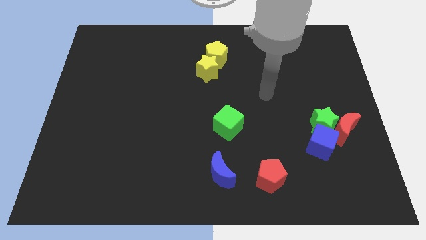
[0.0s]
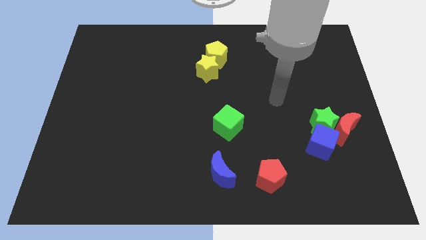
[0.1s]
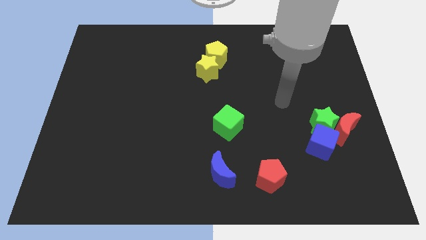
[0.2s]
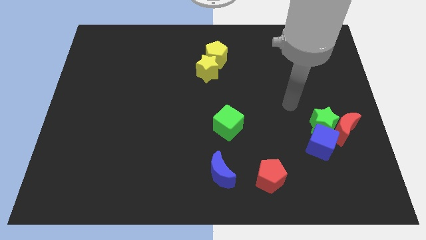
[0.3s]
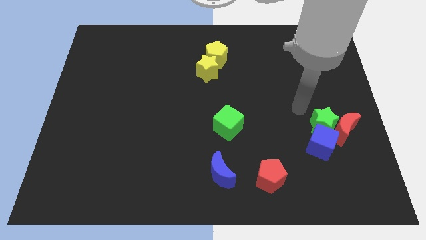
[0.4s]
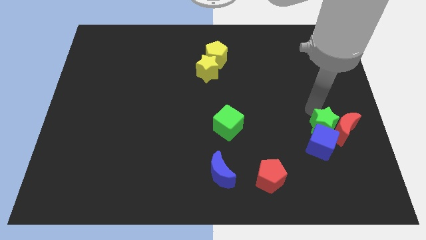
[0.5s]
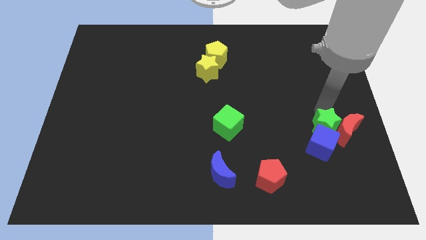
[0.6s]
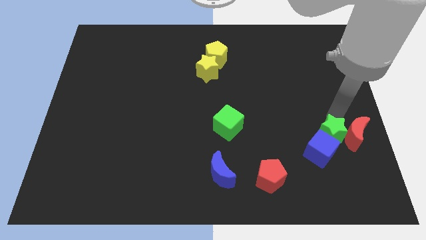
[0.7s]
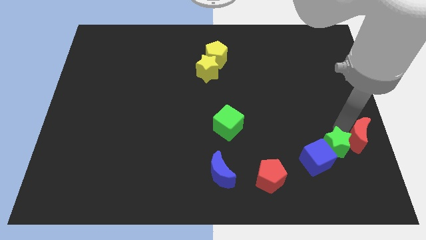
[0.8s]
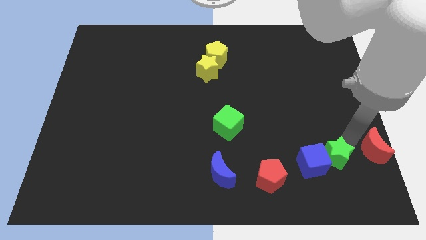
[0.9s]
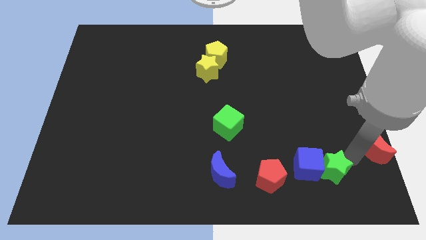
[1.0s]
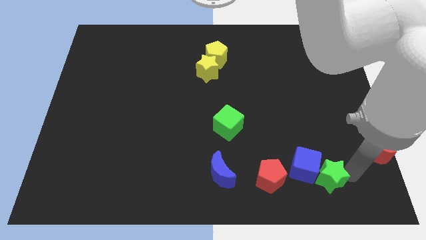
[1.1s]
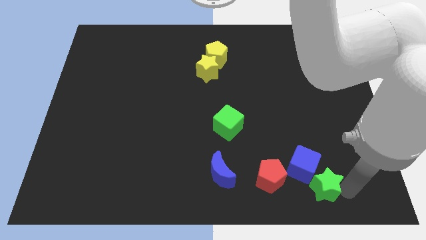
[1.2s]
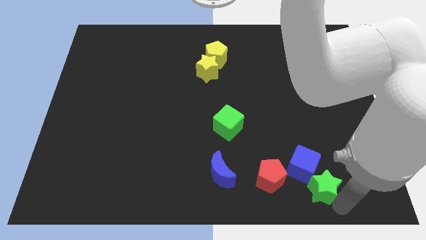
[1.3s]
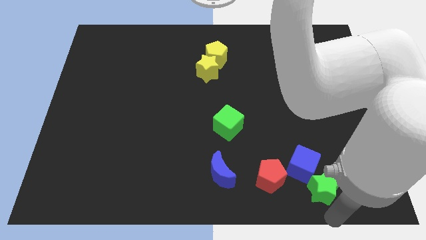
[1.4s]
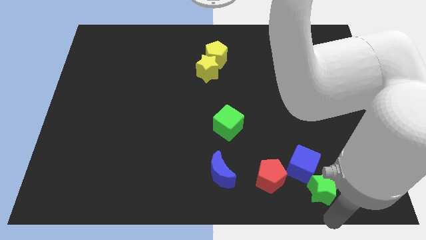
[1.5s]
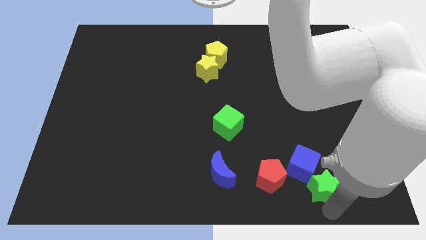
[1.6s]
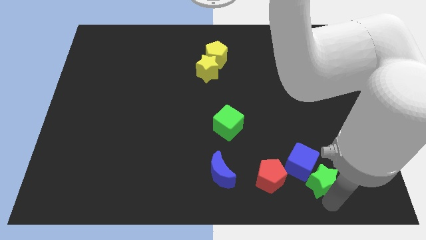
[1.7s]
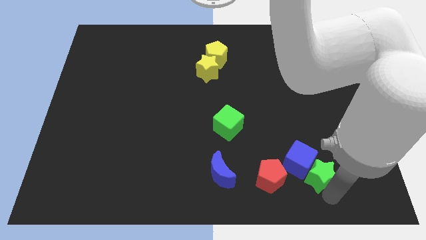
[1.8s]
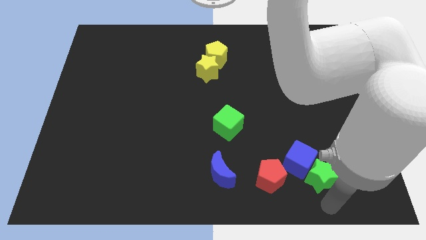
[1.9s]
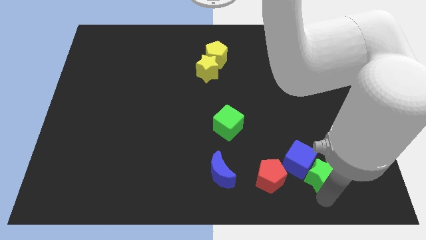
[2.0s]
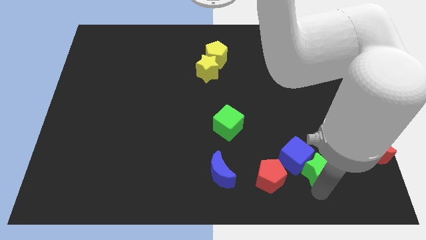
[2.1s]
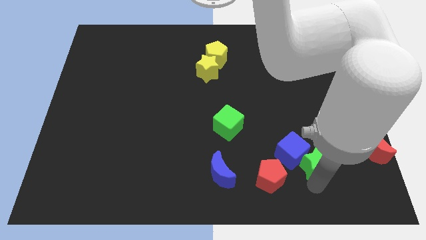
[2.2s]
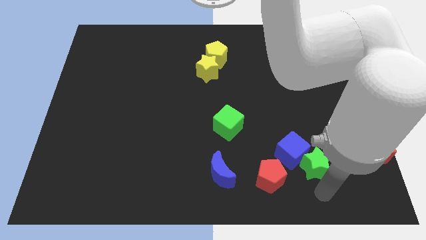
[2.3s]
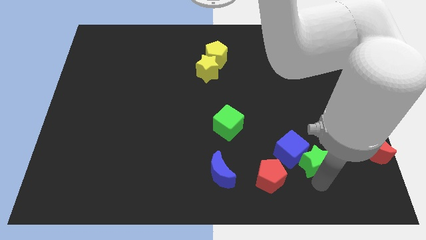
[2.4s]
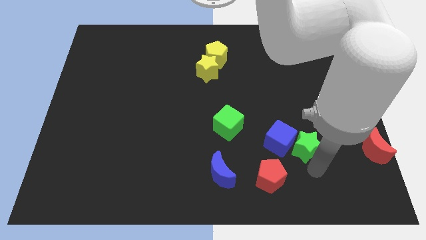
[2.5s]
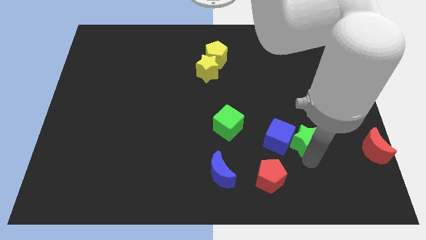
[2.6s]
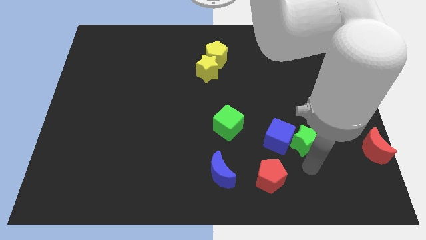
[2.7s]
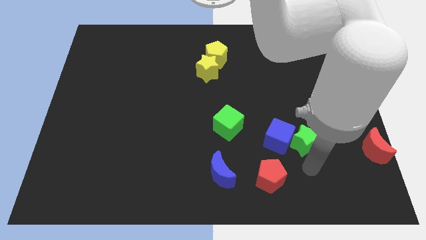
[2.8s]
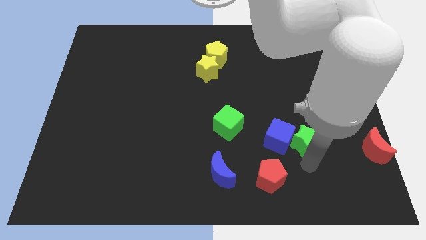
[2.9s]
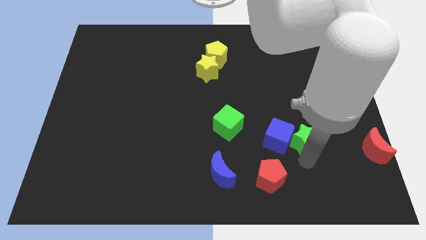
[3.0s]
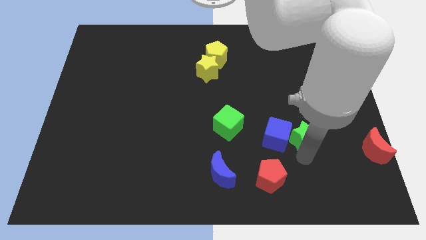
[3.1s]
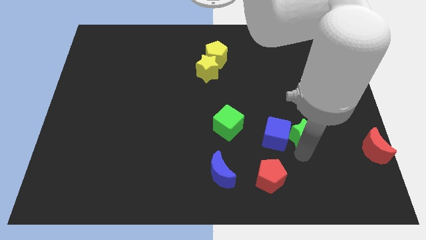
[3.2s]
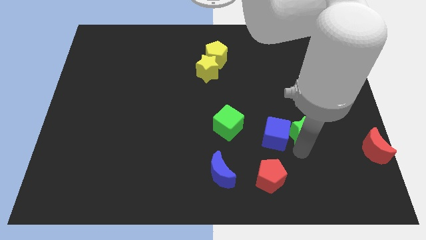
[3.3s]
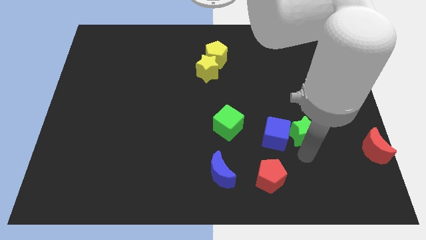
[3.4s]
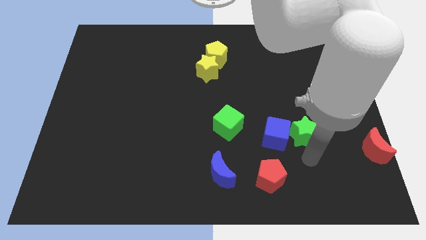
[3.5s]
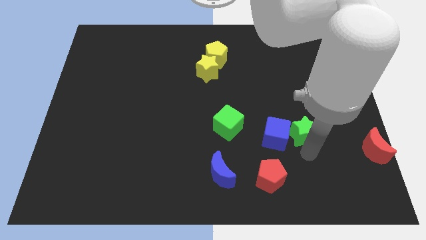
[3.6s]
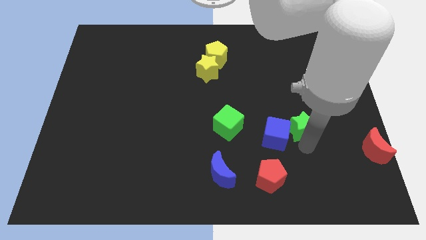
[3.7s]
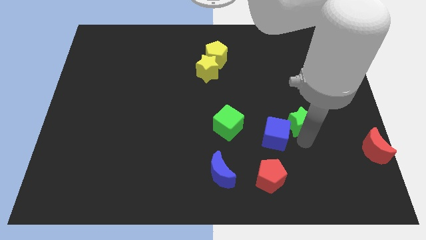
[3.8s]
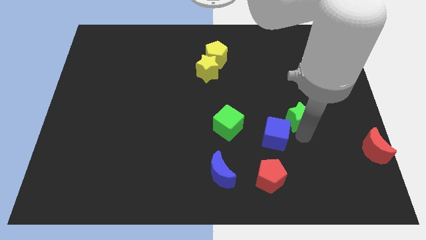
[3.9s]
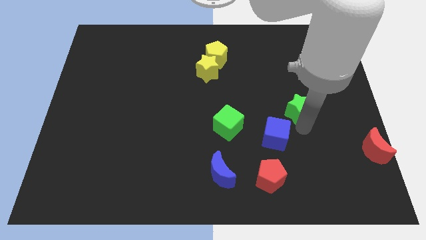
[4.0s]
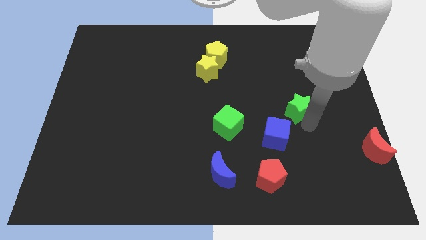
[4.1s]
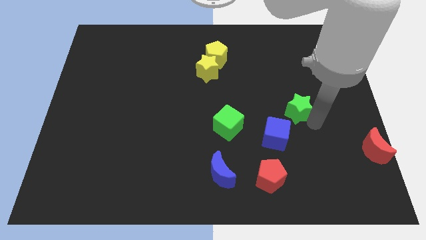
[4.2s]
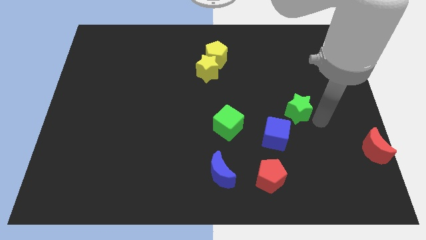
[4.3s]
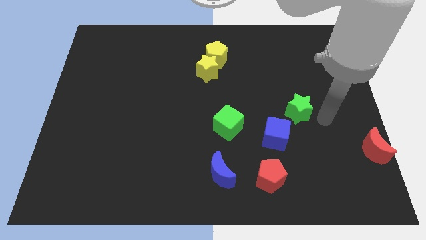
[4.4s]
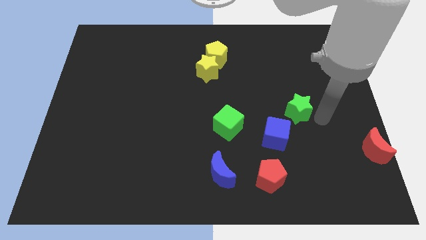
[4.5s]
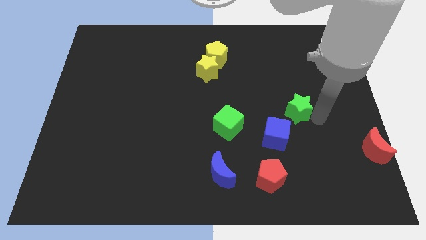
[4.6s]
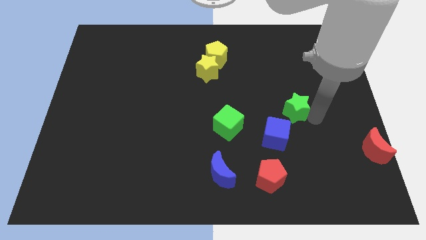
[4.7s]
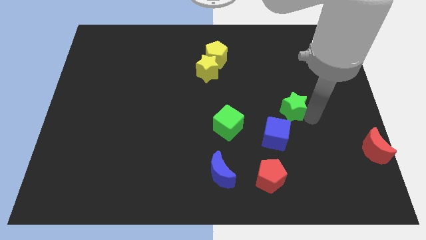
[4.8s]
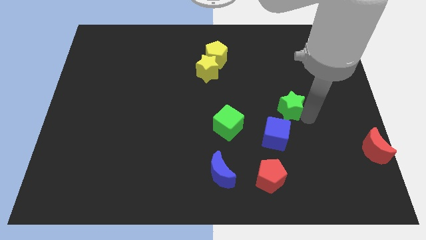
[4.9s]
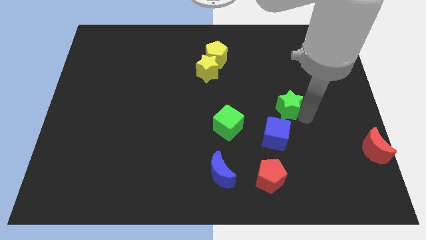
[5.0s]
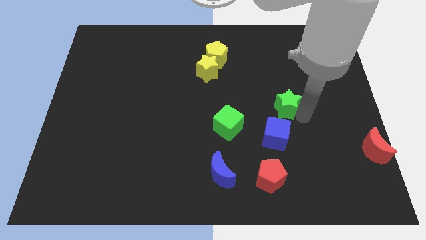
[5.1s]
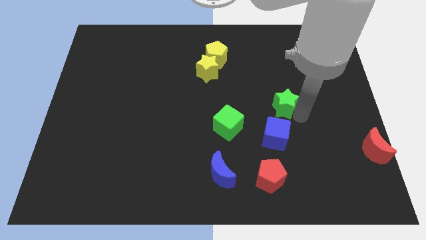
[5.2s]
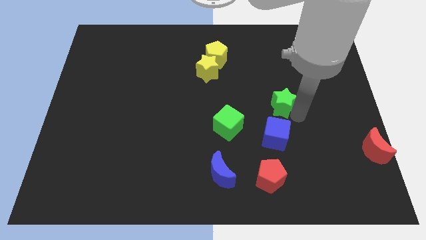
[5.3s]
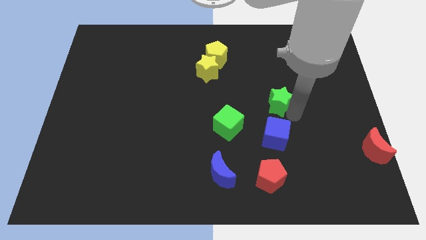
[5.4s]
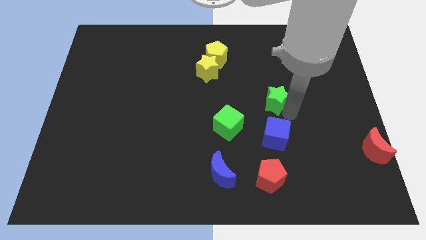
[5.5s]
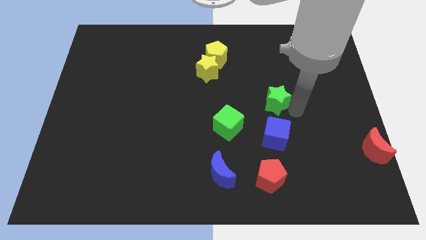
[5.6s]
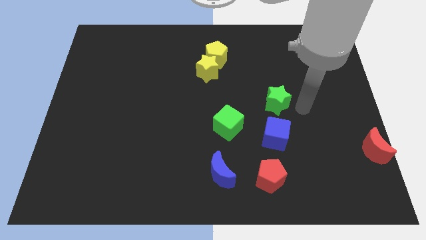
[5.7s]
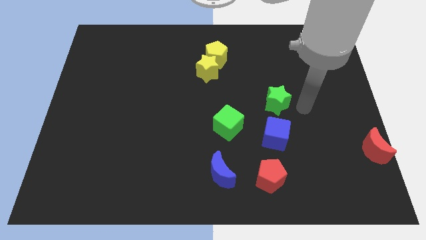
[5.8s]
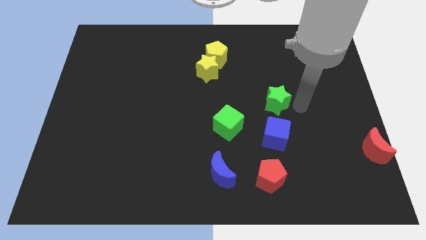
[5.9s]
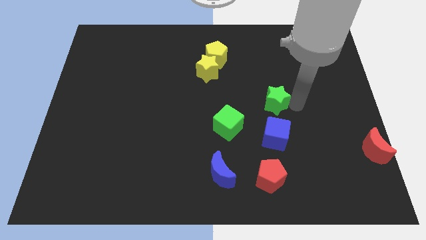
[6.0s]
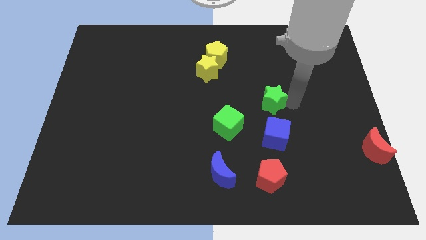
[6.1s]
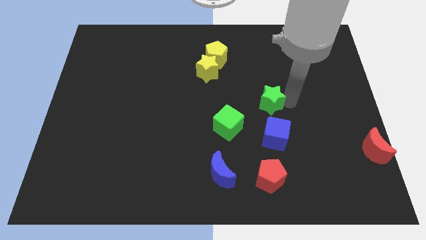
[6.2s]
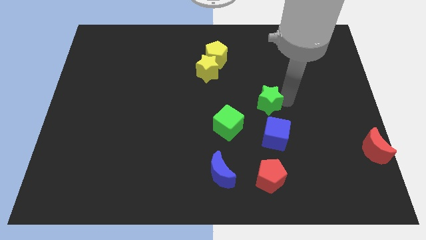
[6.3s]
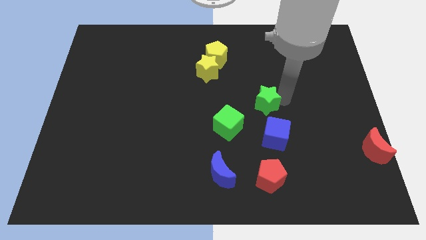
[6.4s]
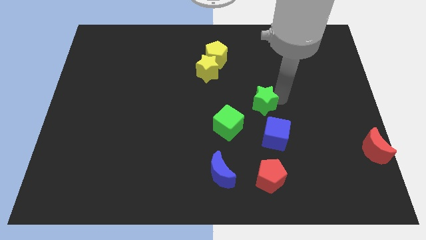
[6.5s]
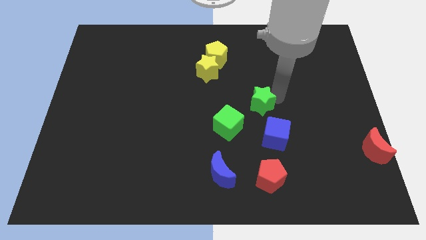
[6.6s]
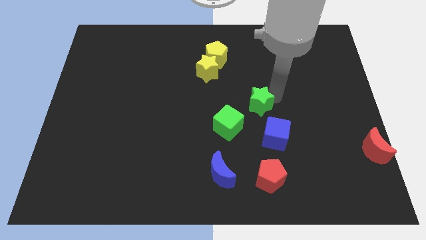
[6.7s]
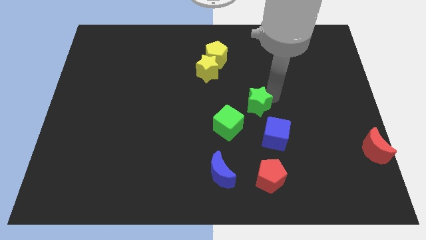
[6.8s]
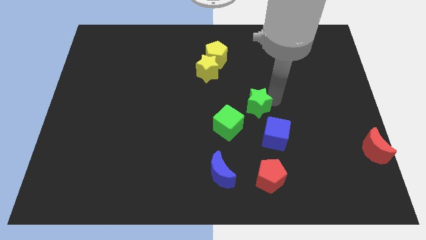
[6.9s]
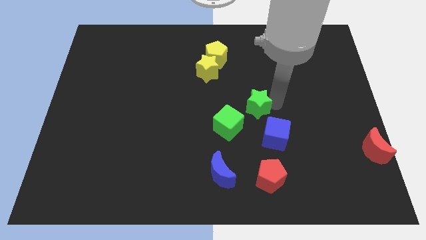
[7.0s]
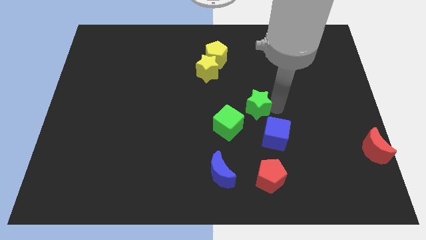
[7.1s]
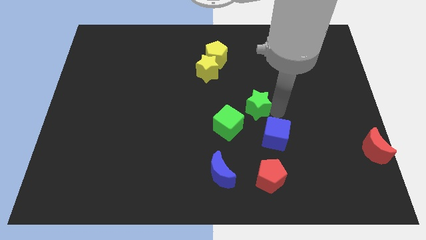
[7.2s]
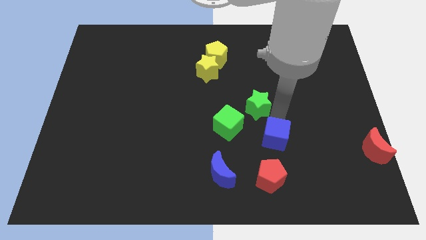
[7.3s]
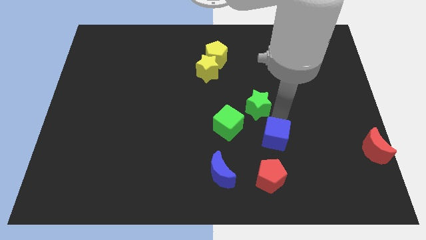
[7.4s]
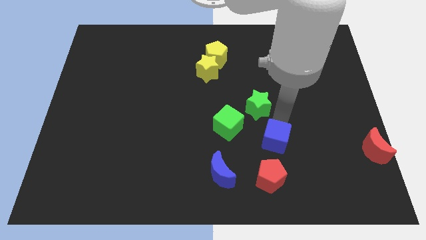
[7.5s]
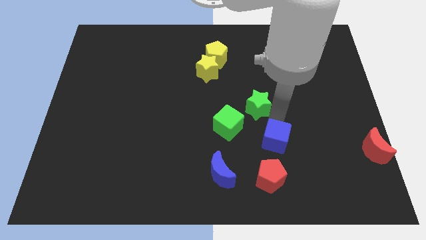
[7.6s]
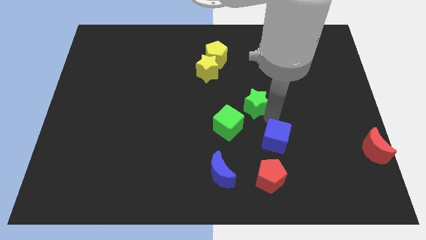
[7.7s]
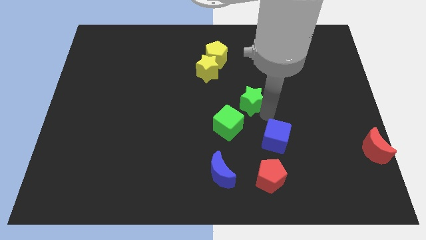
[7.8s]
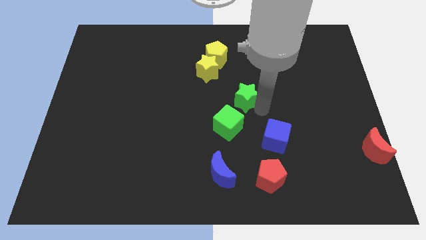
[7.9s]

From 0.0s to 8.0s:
slide the green star to the top of the green cube
